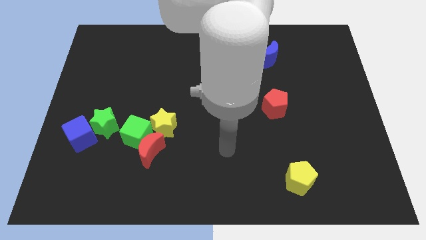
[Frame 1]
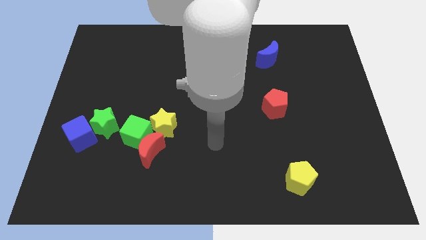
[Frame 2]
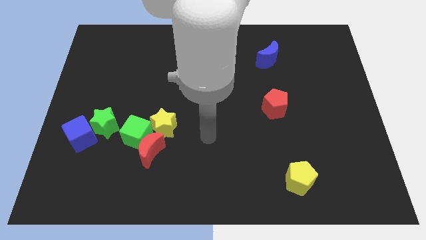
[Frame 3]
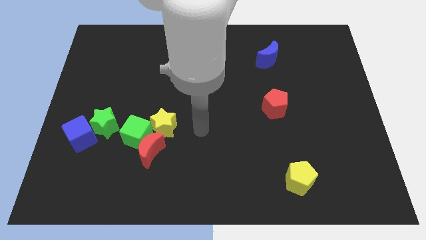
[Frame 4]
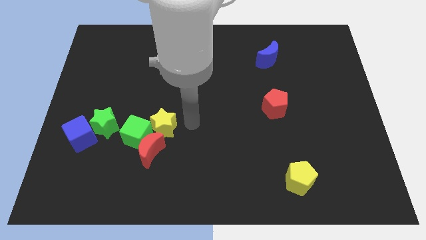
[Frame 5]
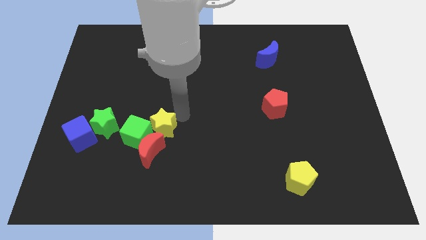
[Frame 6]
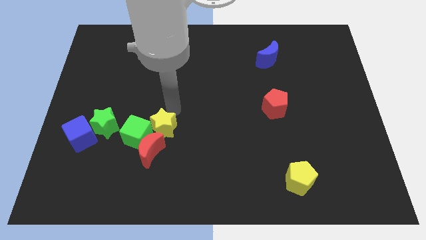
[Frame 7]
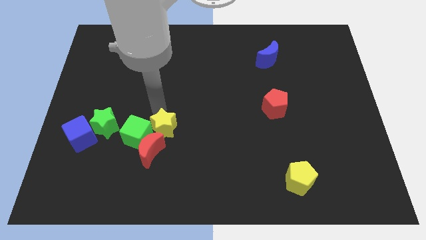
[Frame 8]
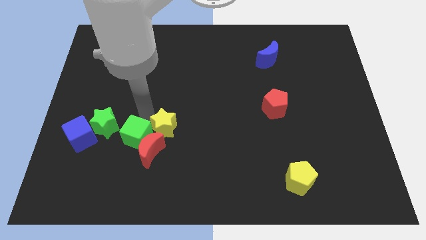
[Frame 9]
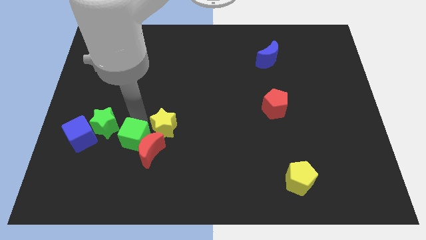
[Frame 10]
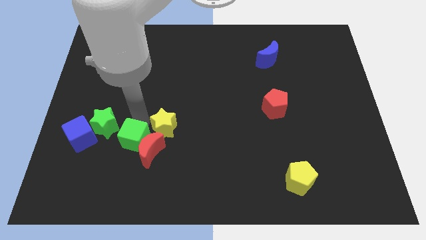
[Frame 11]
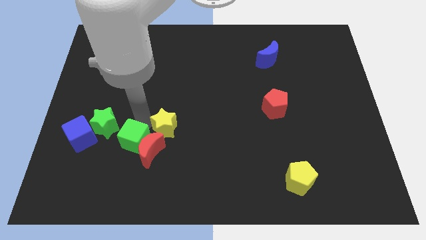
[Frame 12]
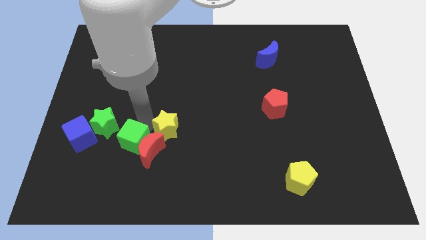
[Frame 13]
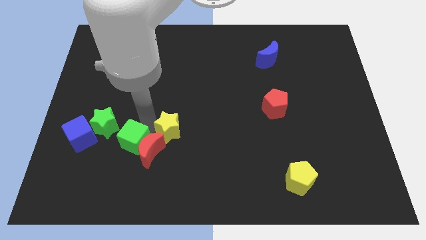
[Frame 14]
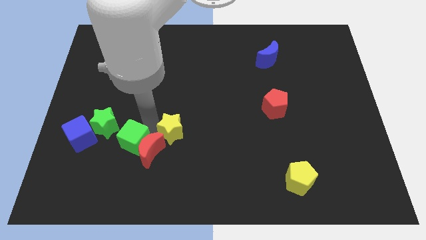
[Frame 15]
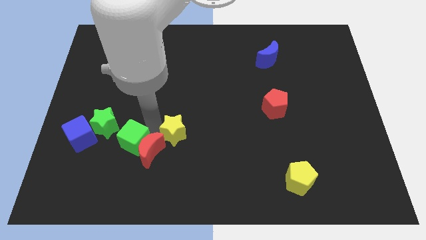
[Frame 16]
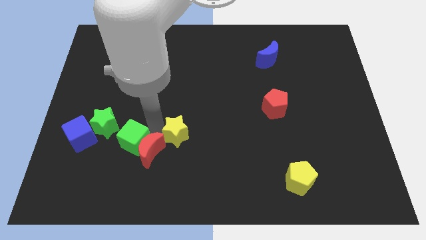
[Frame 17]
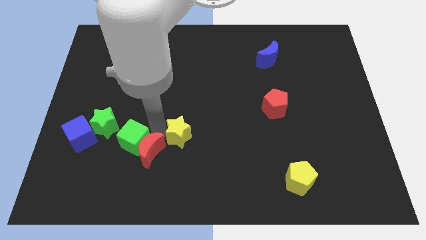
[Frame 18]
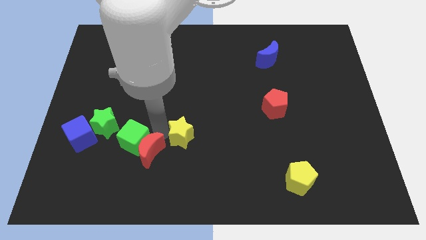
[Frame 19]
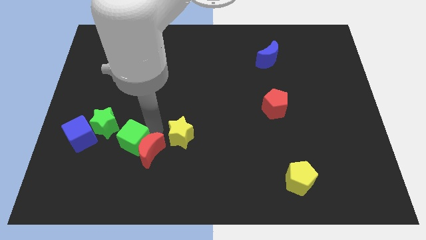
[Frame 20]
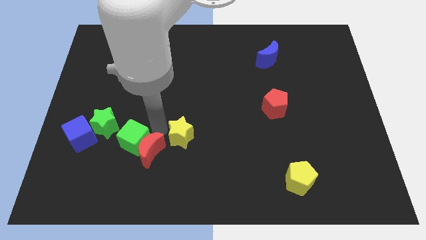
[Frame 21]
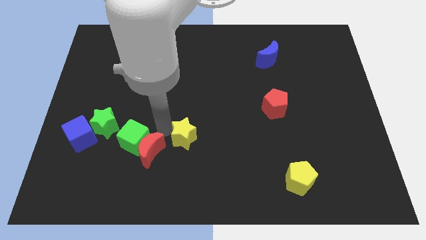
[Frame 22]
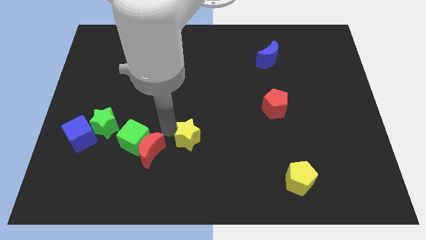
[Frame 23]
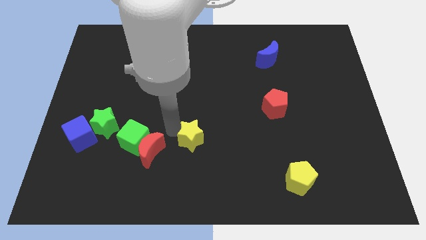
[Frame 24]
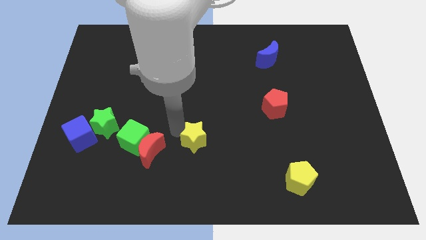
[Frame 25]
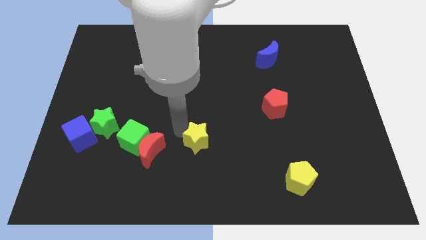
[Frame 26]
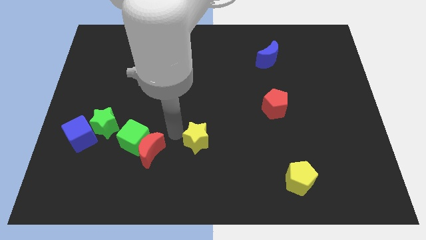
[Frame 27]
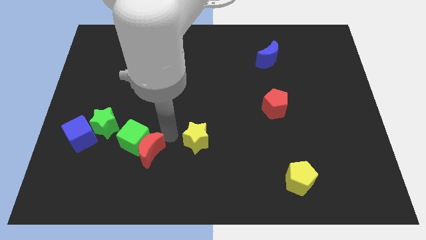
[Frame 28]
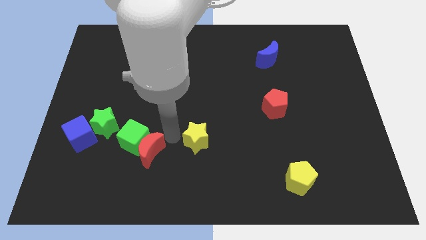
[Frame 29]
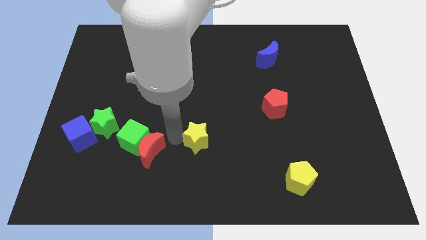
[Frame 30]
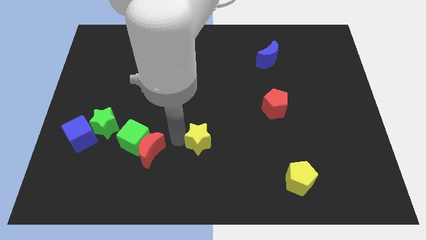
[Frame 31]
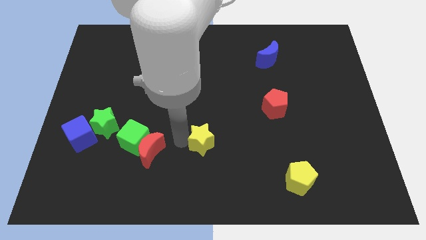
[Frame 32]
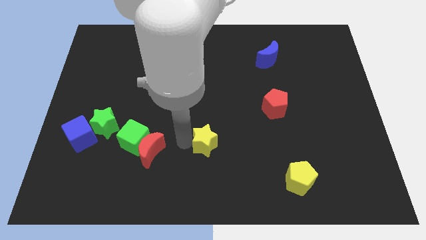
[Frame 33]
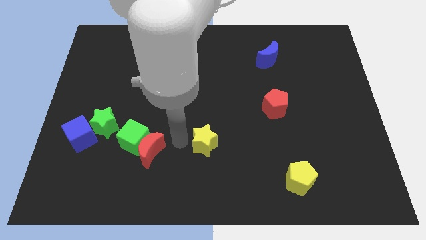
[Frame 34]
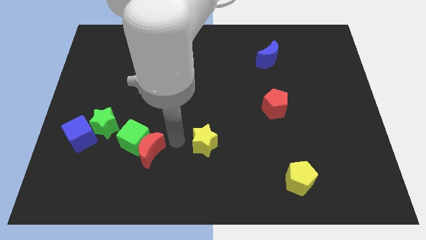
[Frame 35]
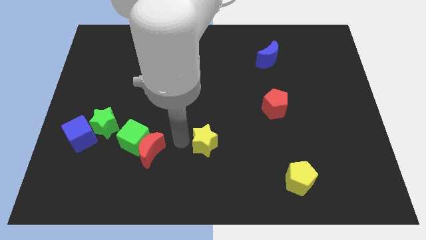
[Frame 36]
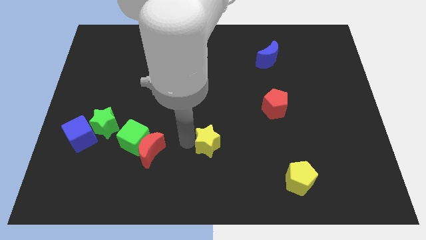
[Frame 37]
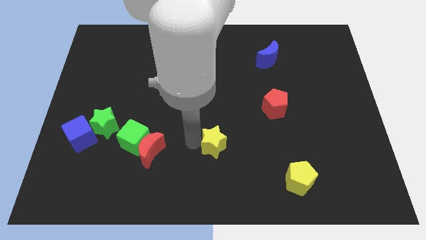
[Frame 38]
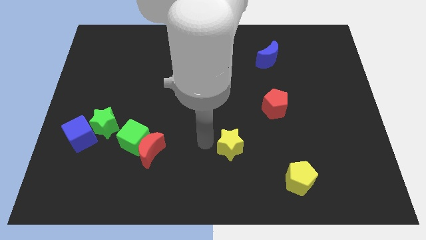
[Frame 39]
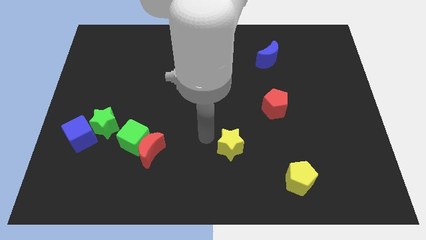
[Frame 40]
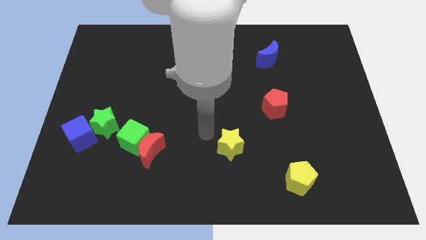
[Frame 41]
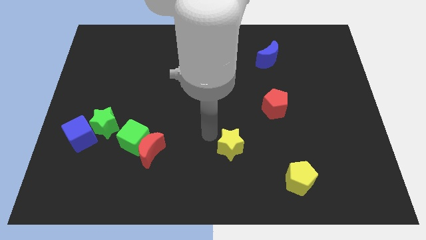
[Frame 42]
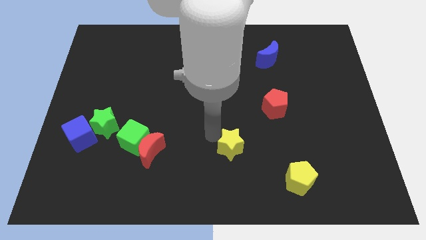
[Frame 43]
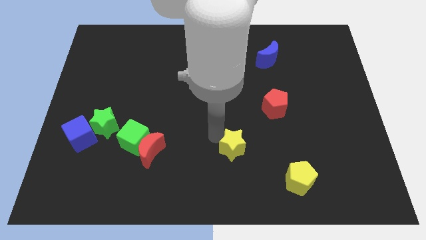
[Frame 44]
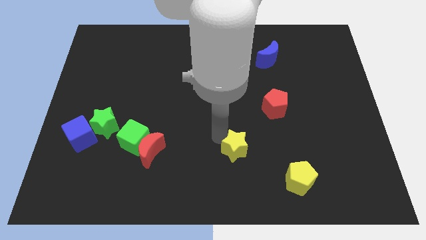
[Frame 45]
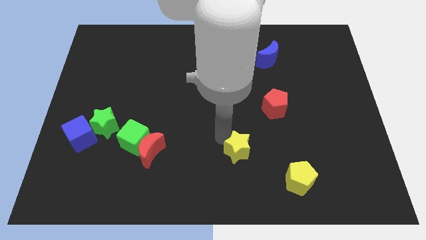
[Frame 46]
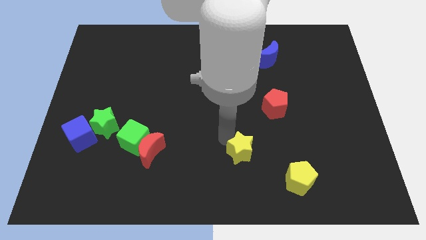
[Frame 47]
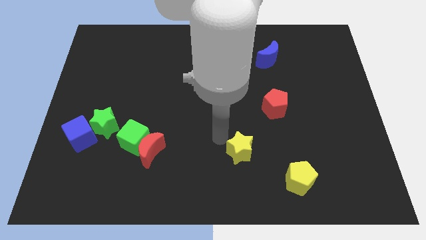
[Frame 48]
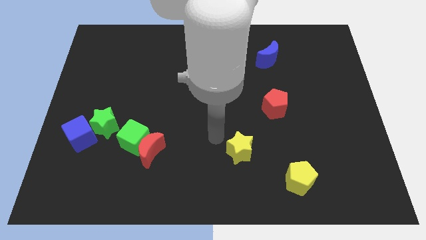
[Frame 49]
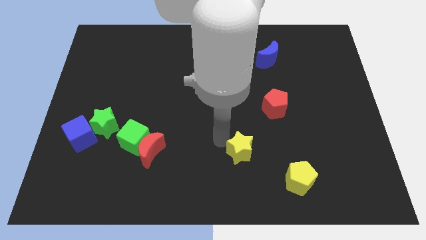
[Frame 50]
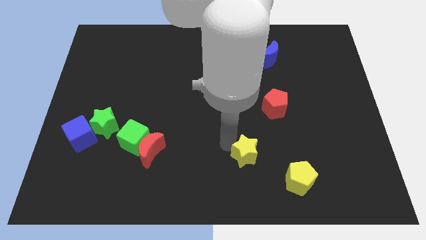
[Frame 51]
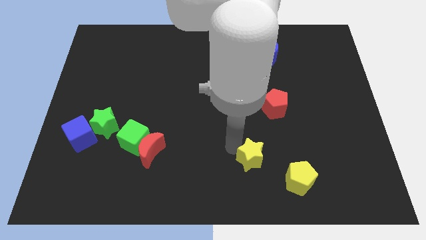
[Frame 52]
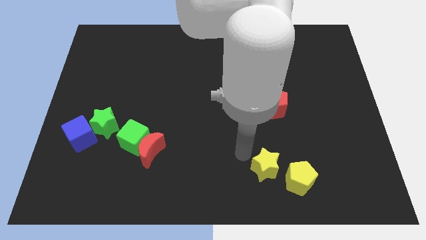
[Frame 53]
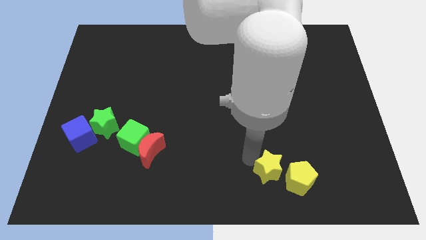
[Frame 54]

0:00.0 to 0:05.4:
put the yellow star towards the yellow pentagon

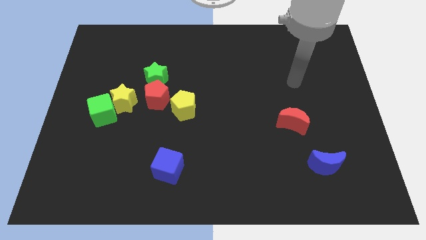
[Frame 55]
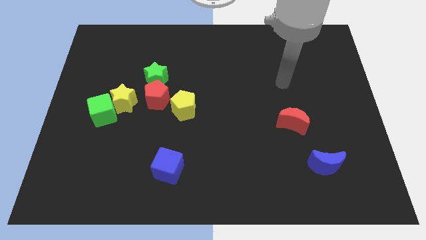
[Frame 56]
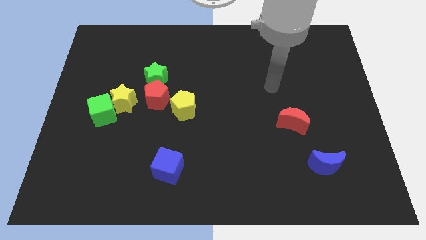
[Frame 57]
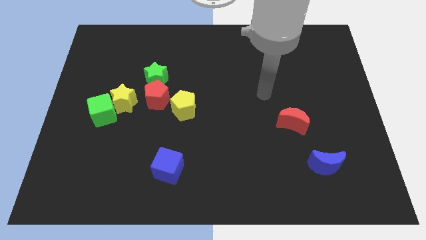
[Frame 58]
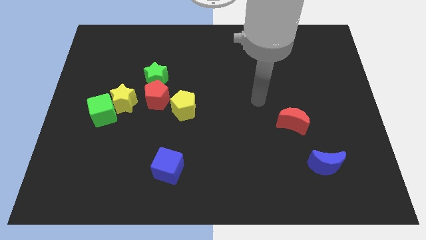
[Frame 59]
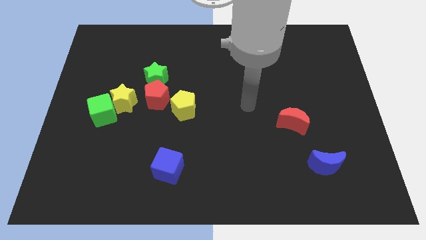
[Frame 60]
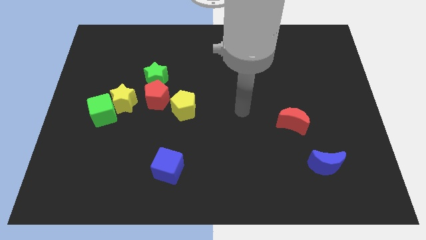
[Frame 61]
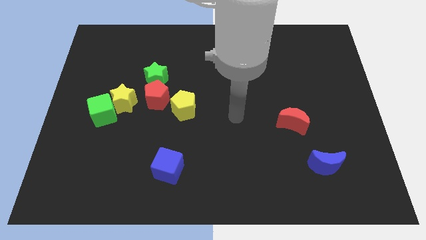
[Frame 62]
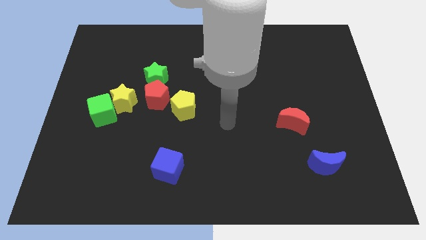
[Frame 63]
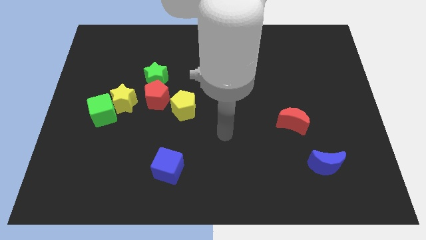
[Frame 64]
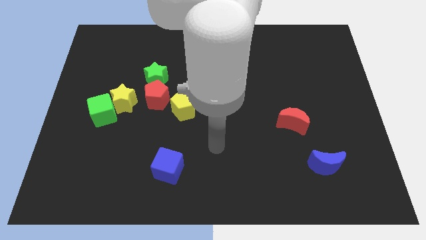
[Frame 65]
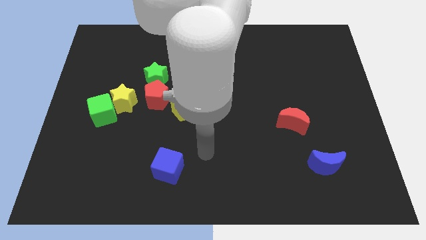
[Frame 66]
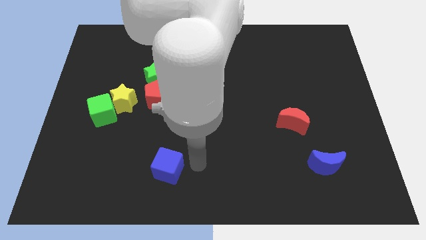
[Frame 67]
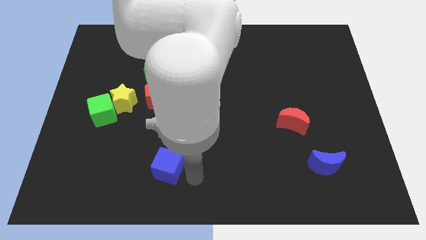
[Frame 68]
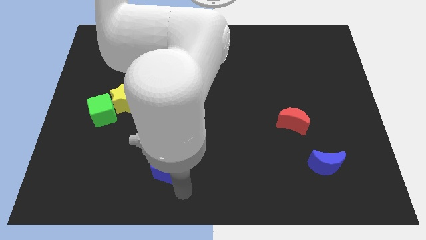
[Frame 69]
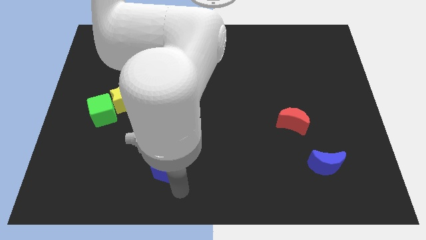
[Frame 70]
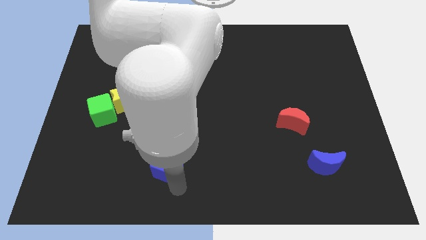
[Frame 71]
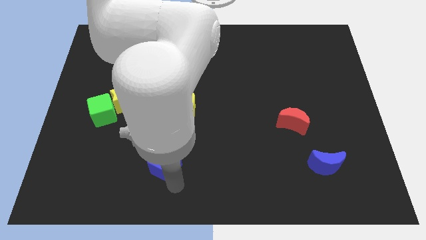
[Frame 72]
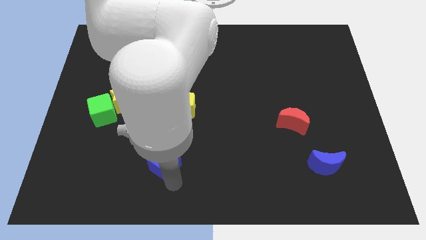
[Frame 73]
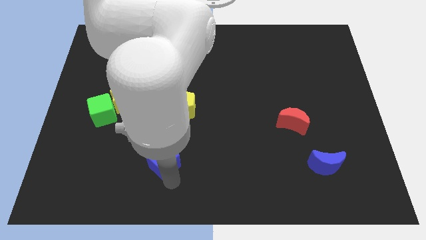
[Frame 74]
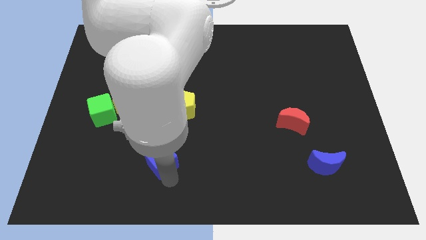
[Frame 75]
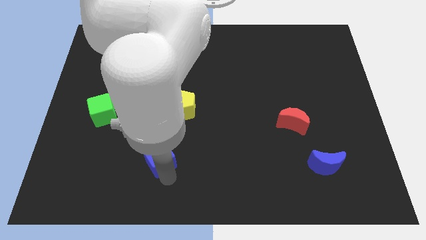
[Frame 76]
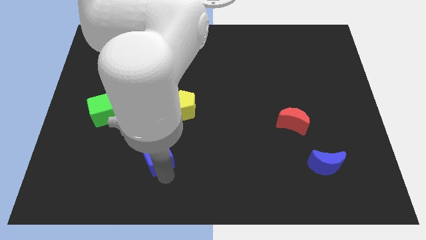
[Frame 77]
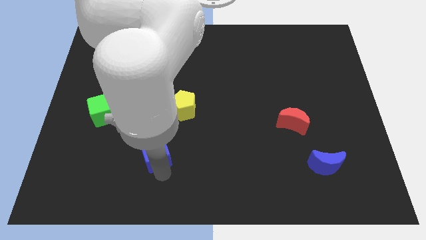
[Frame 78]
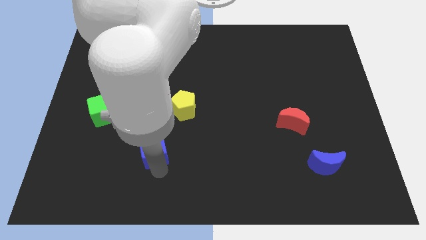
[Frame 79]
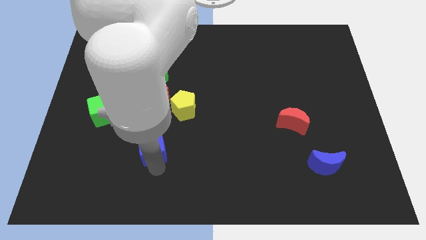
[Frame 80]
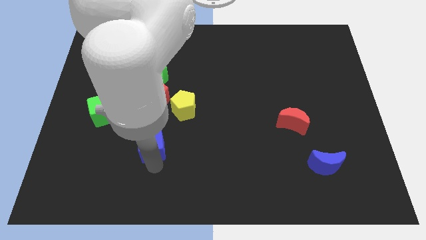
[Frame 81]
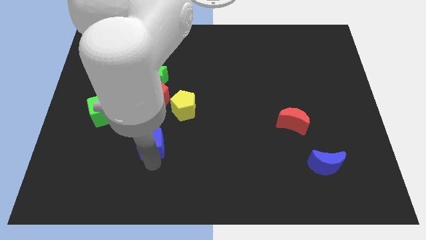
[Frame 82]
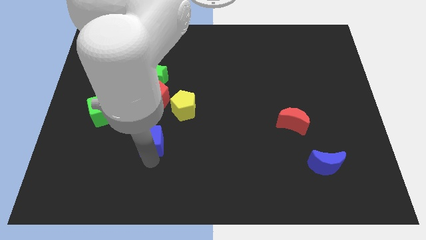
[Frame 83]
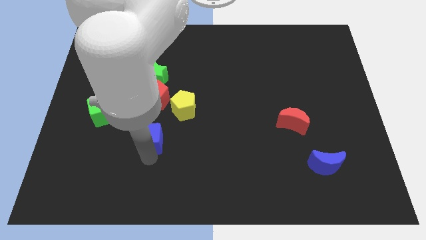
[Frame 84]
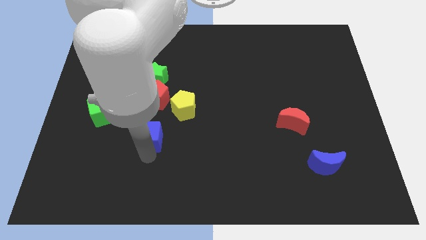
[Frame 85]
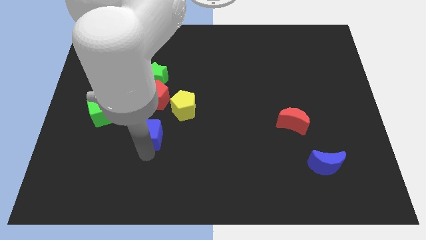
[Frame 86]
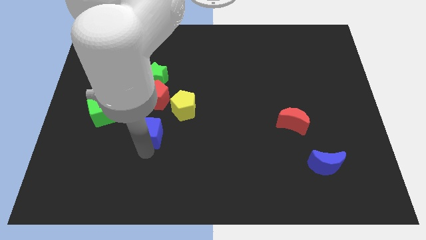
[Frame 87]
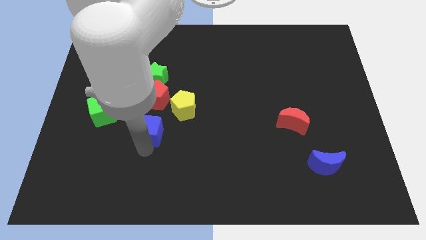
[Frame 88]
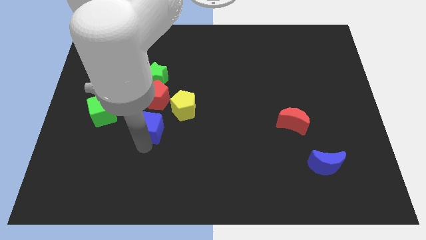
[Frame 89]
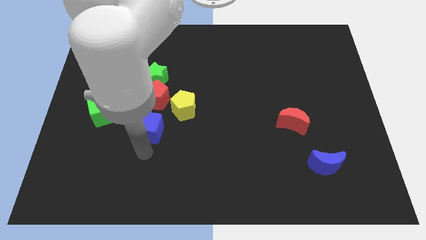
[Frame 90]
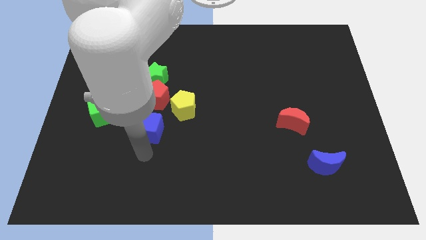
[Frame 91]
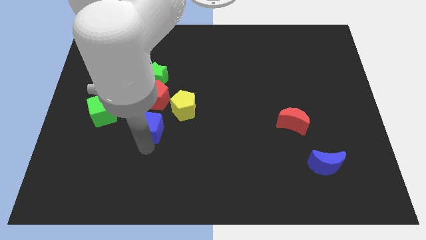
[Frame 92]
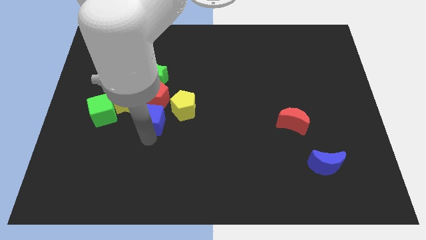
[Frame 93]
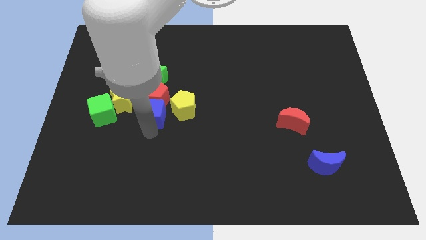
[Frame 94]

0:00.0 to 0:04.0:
slide the blue cube next to the red pentagon
